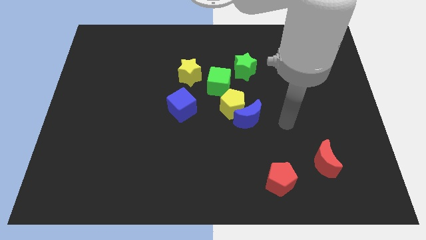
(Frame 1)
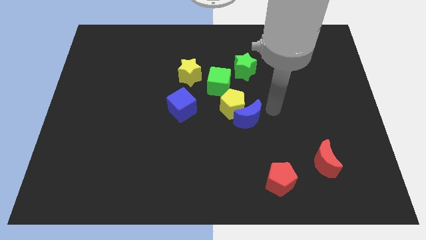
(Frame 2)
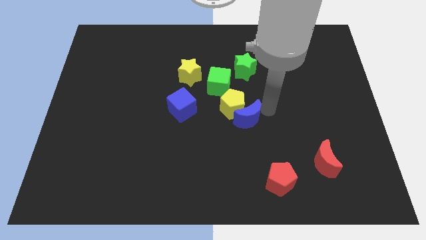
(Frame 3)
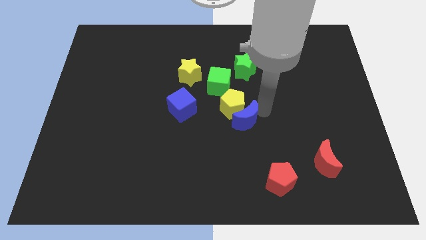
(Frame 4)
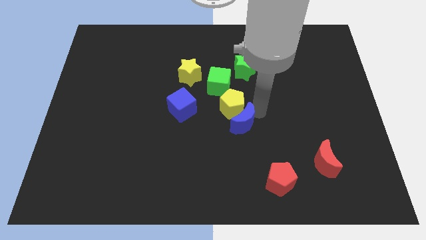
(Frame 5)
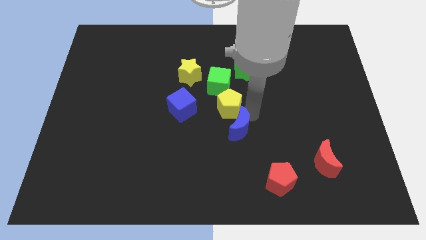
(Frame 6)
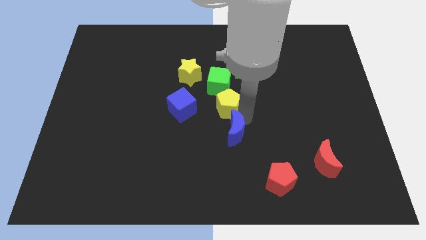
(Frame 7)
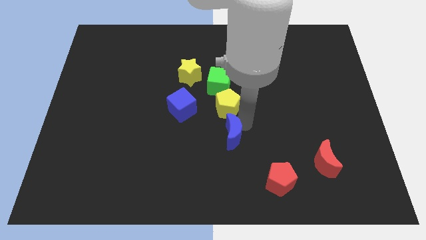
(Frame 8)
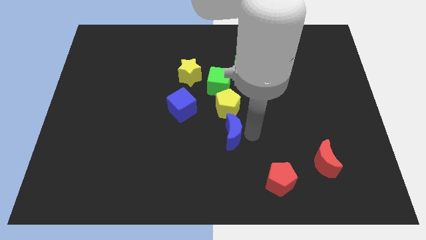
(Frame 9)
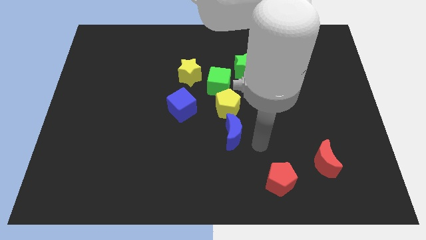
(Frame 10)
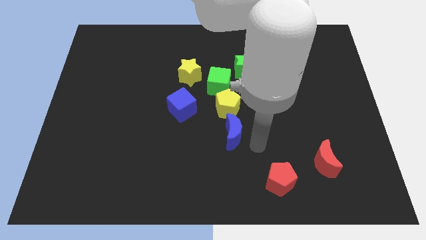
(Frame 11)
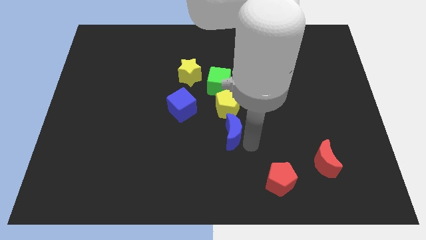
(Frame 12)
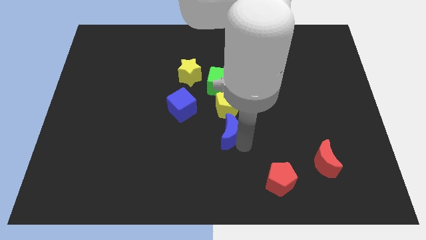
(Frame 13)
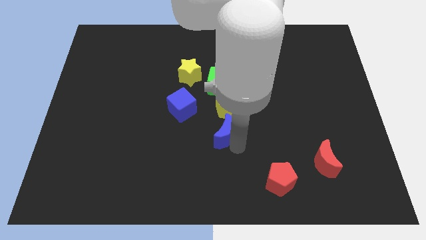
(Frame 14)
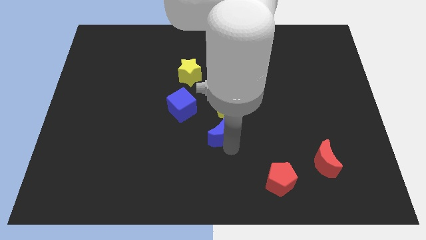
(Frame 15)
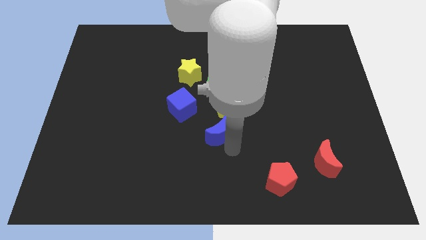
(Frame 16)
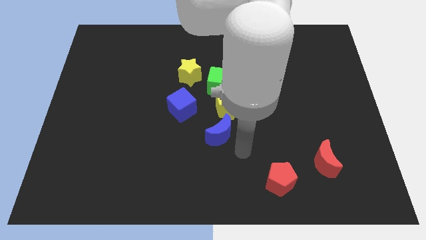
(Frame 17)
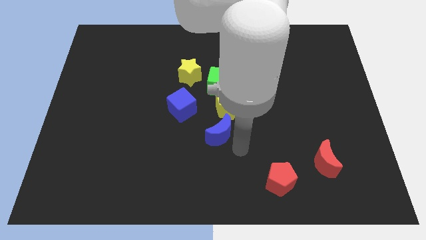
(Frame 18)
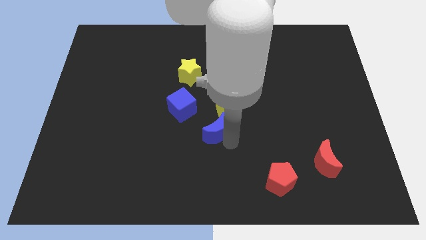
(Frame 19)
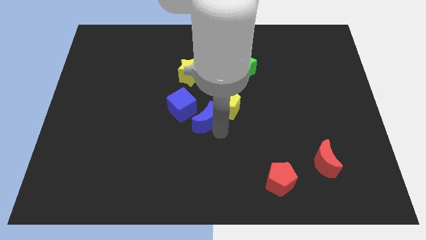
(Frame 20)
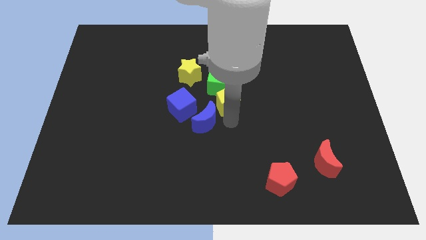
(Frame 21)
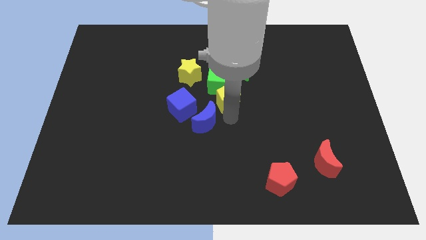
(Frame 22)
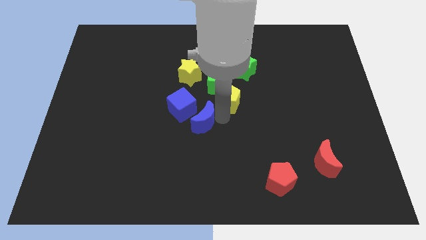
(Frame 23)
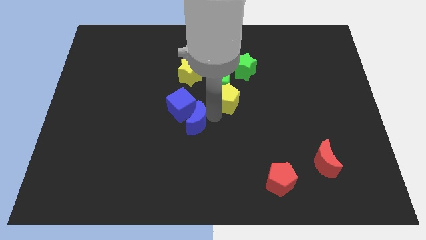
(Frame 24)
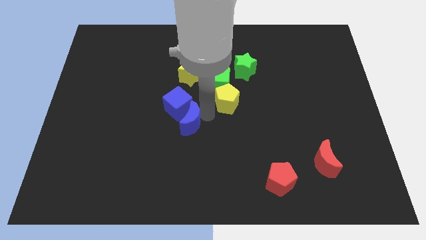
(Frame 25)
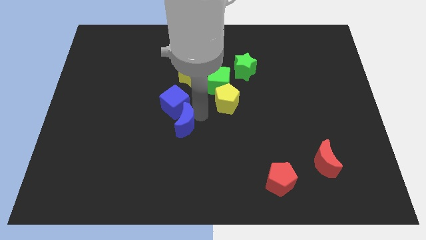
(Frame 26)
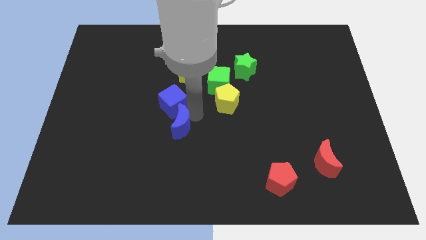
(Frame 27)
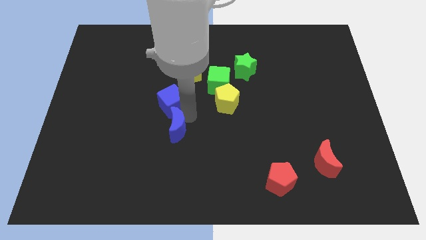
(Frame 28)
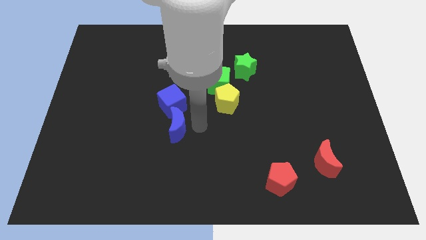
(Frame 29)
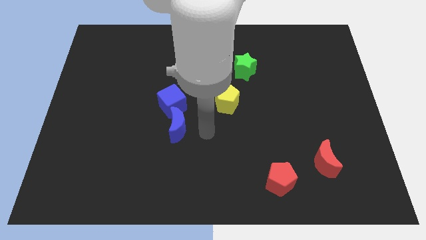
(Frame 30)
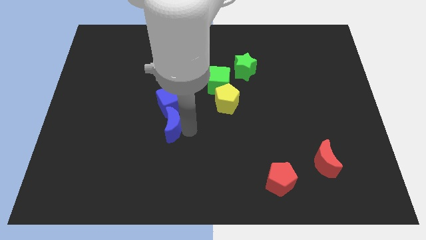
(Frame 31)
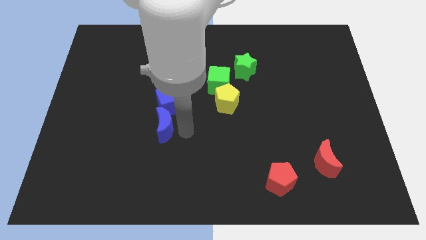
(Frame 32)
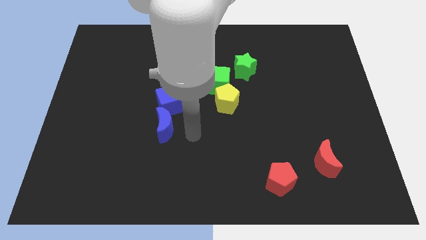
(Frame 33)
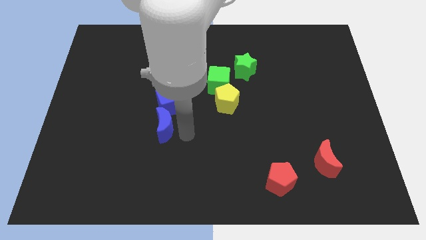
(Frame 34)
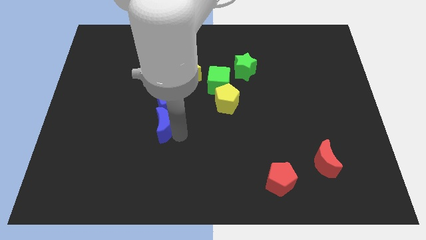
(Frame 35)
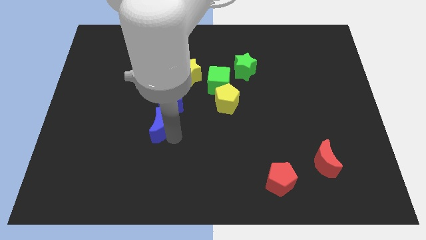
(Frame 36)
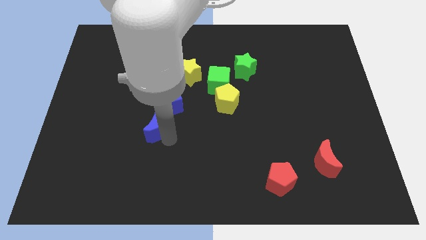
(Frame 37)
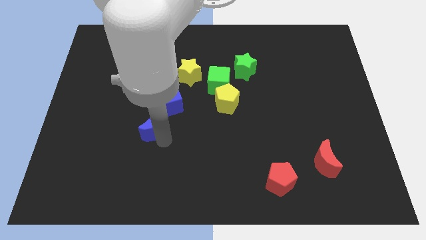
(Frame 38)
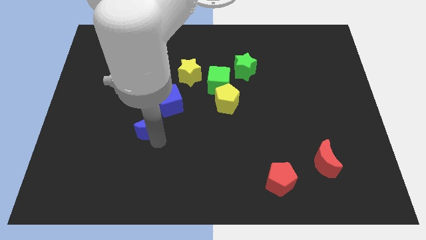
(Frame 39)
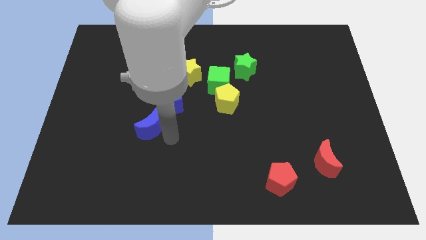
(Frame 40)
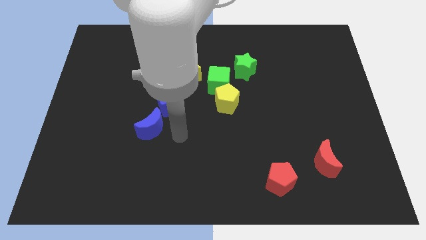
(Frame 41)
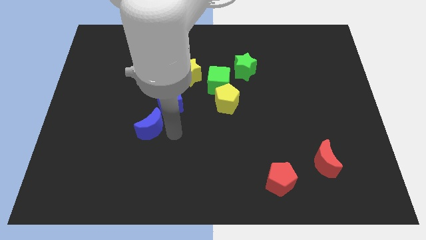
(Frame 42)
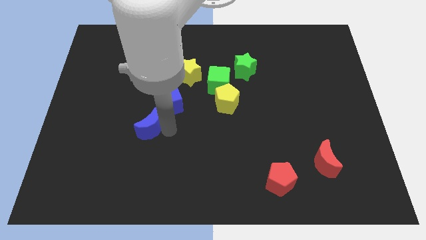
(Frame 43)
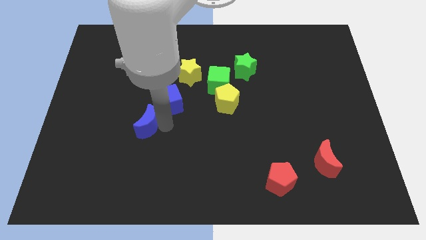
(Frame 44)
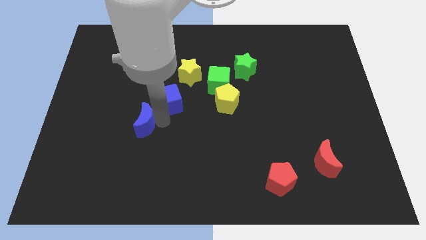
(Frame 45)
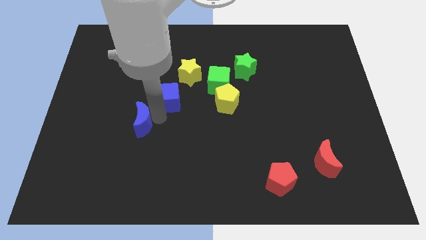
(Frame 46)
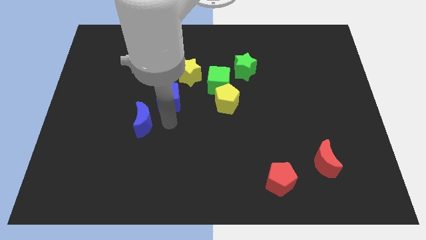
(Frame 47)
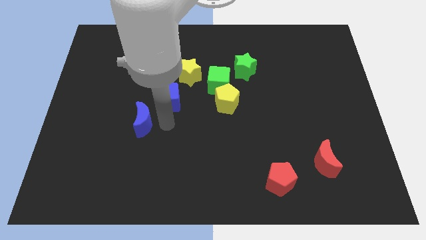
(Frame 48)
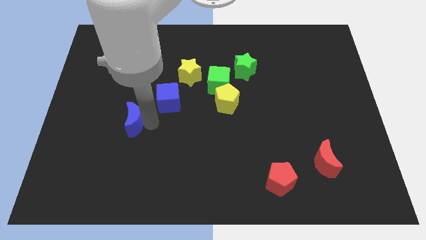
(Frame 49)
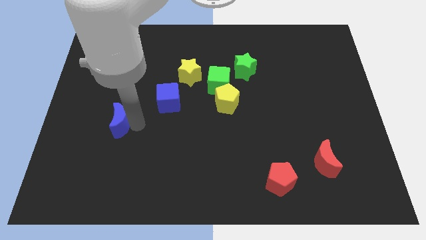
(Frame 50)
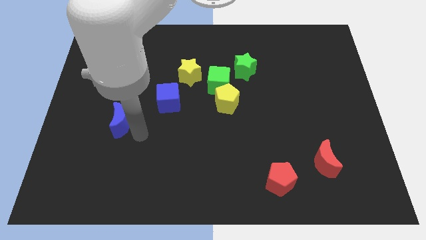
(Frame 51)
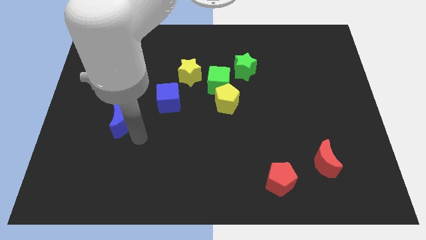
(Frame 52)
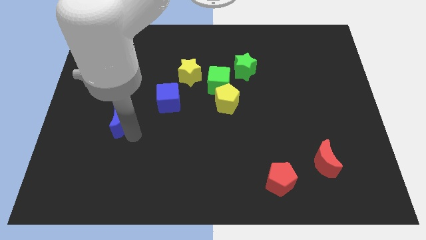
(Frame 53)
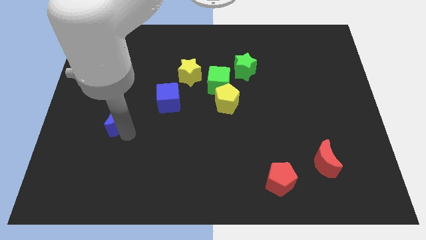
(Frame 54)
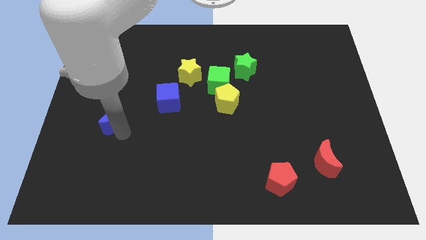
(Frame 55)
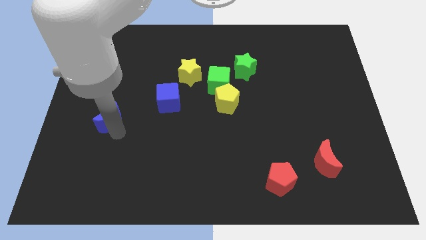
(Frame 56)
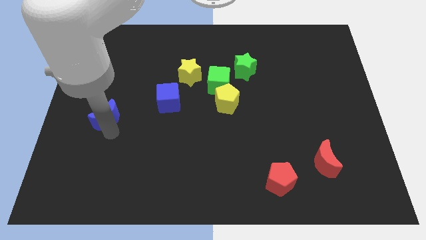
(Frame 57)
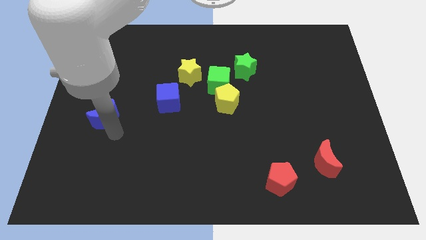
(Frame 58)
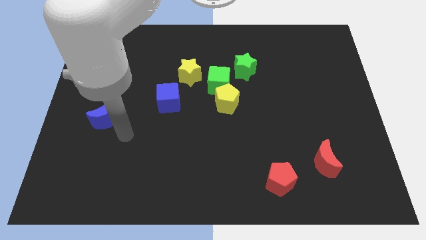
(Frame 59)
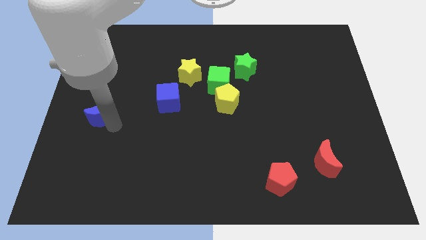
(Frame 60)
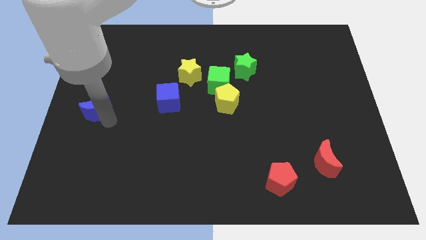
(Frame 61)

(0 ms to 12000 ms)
push the blue moon to the left side
